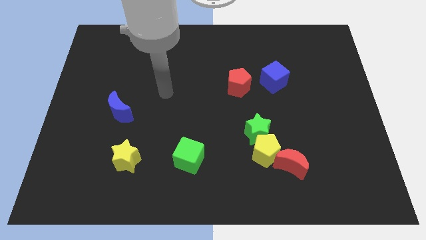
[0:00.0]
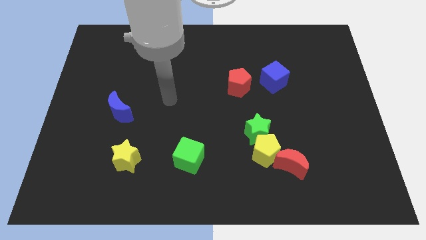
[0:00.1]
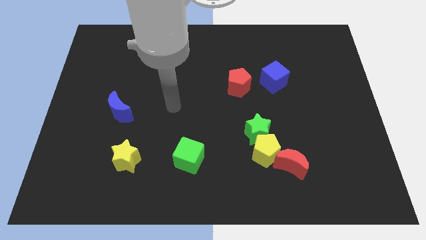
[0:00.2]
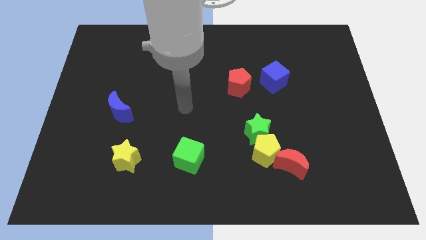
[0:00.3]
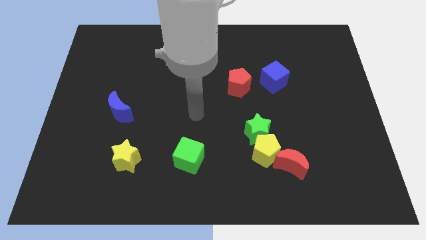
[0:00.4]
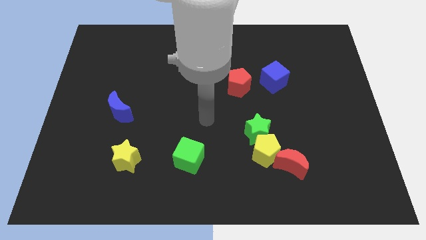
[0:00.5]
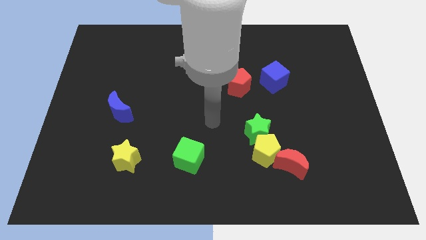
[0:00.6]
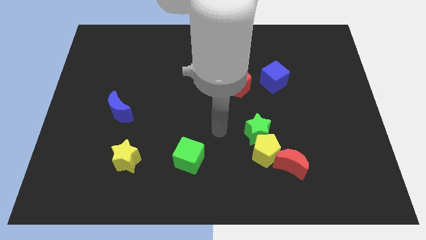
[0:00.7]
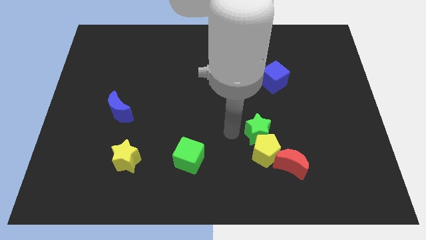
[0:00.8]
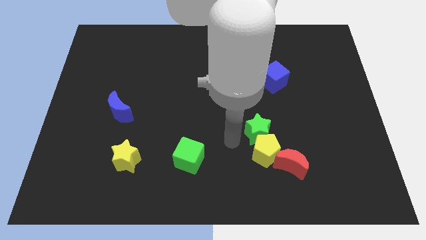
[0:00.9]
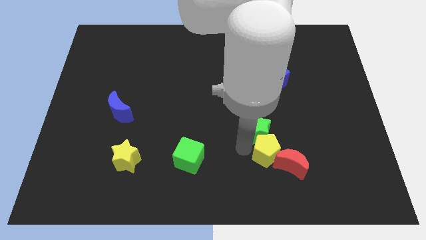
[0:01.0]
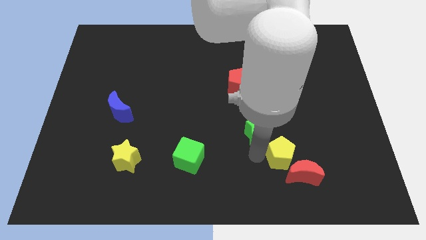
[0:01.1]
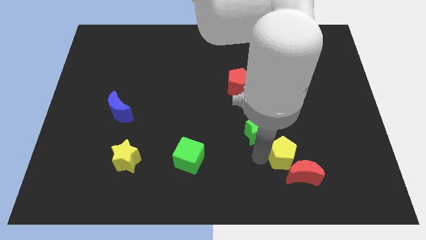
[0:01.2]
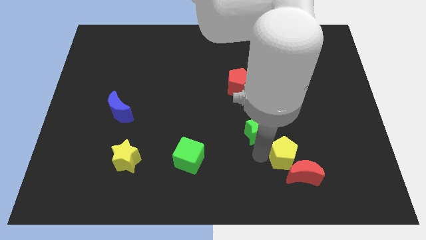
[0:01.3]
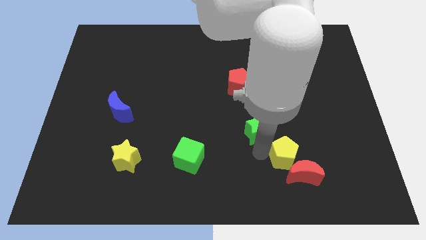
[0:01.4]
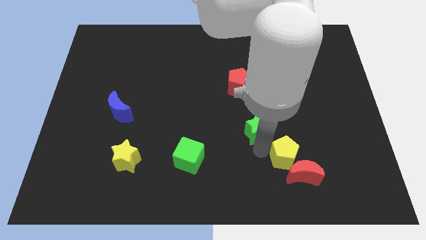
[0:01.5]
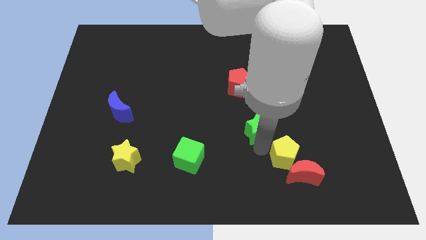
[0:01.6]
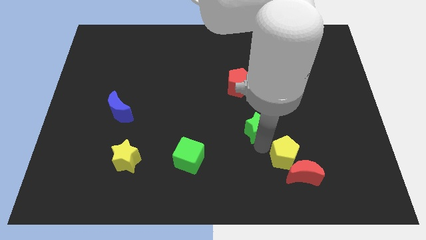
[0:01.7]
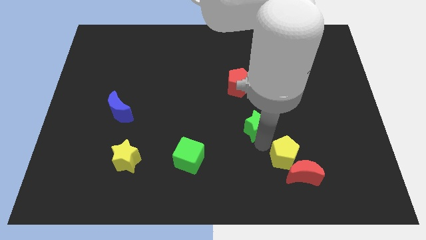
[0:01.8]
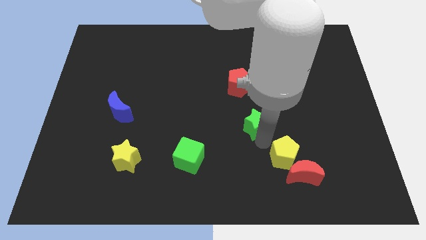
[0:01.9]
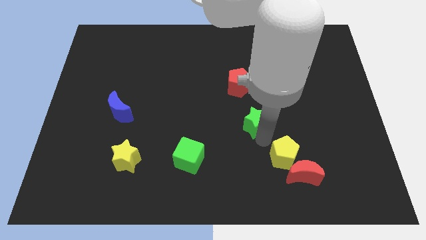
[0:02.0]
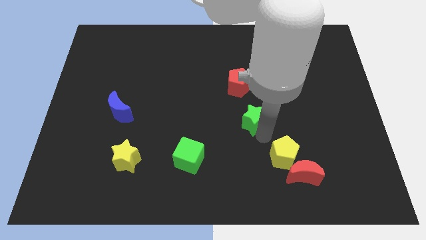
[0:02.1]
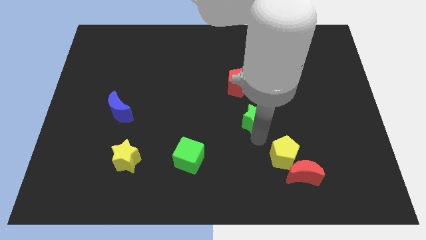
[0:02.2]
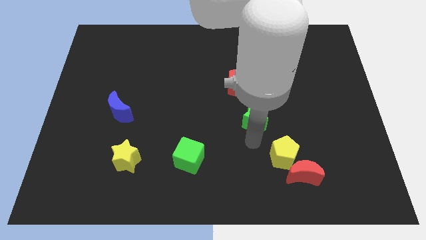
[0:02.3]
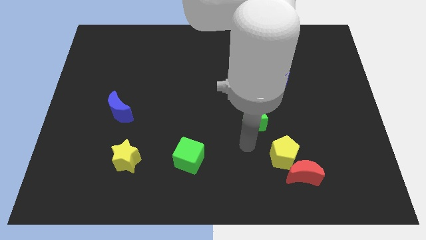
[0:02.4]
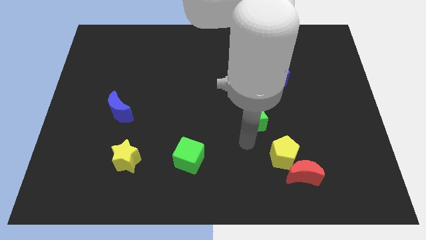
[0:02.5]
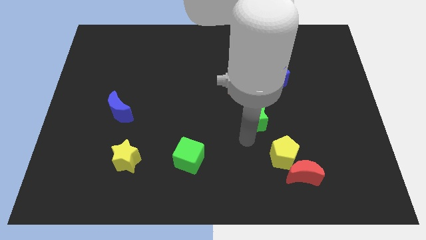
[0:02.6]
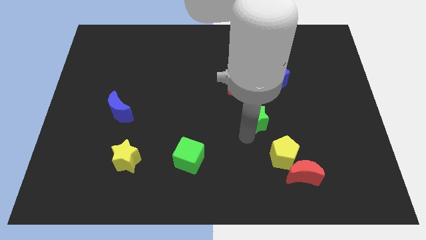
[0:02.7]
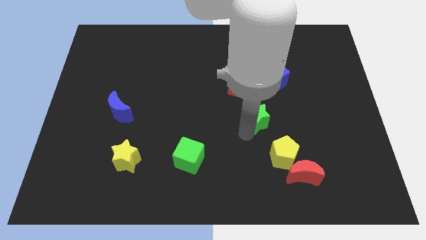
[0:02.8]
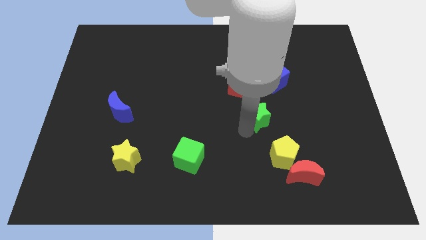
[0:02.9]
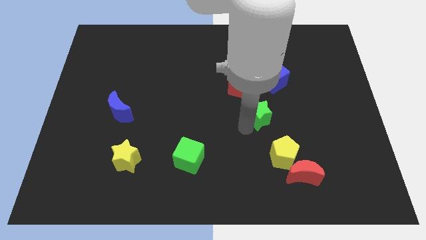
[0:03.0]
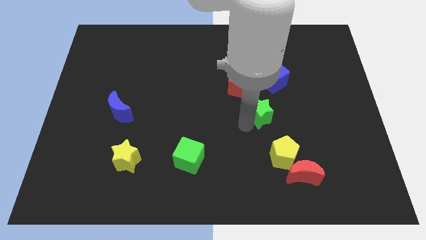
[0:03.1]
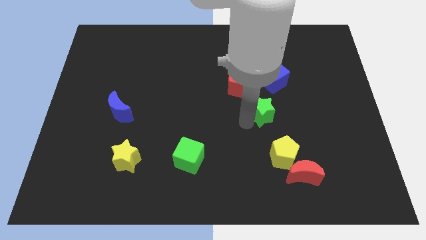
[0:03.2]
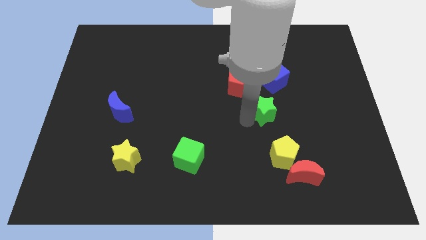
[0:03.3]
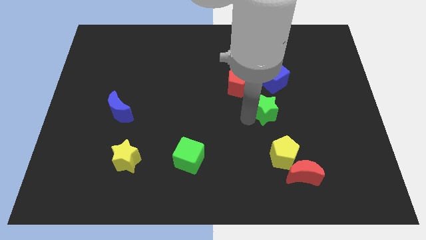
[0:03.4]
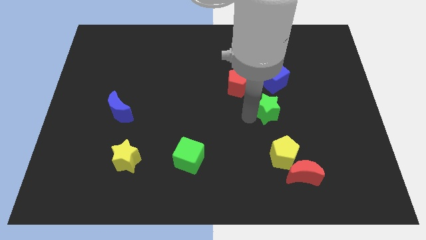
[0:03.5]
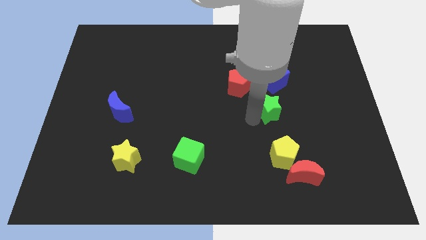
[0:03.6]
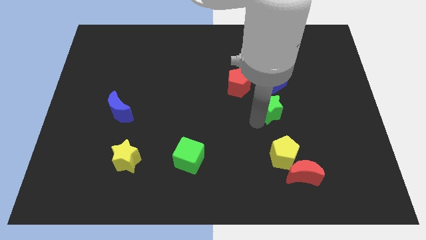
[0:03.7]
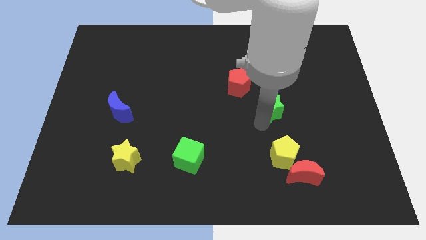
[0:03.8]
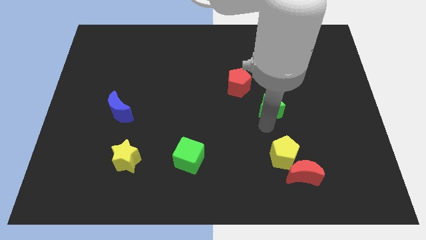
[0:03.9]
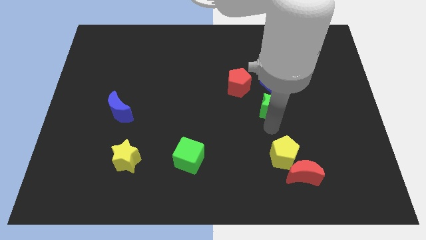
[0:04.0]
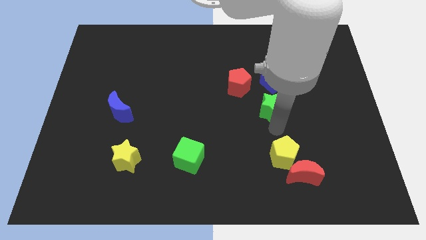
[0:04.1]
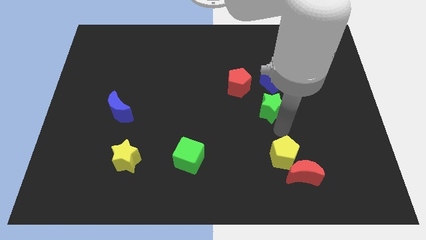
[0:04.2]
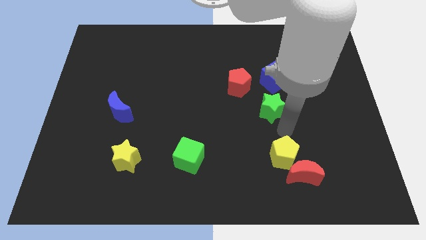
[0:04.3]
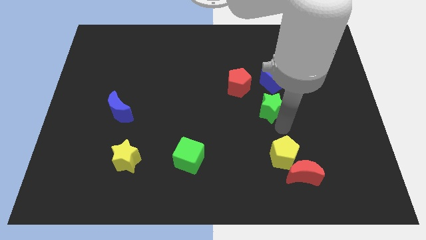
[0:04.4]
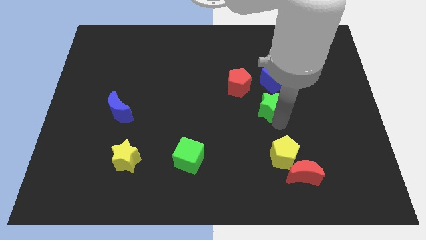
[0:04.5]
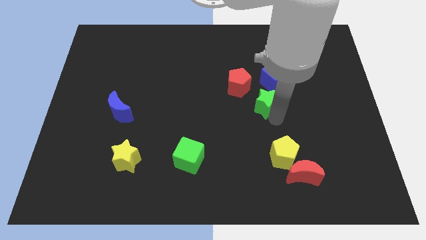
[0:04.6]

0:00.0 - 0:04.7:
slide the green star somewhat upwards

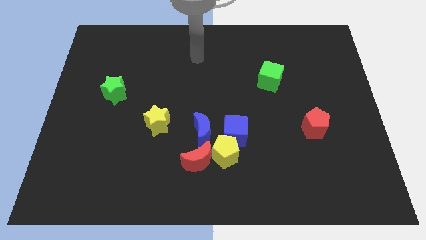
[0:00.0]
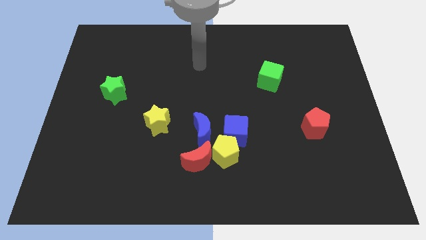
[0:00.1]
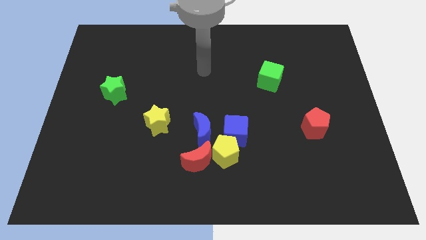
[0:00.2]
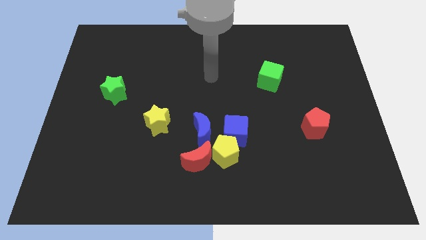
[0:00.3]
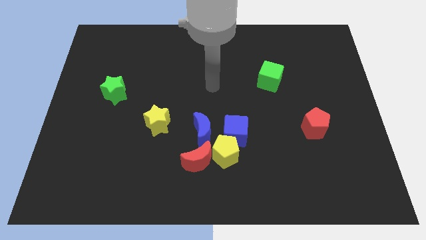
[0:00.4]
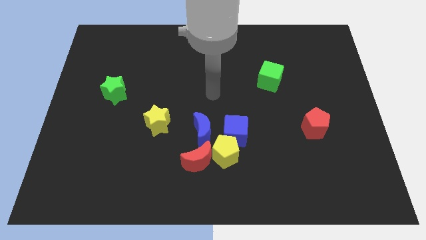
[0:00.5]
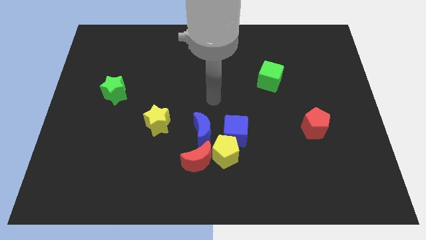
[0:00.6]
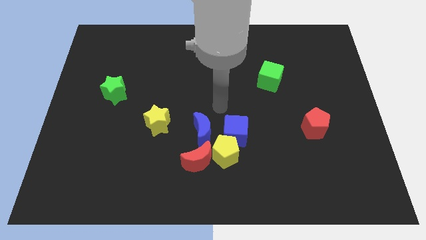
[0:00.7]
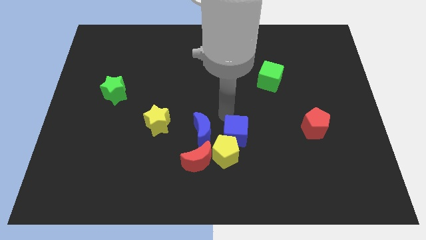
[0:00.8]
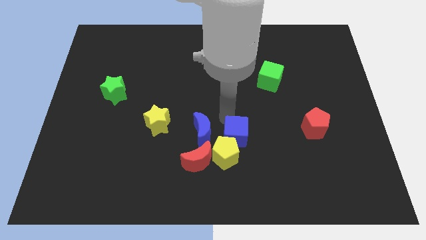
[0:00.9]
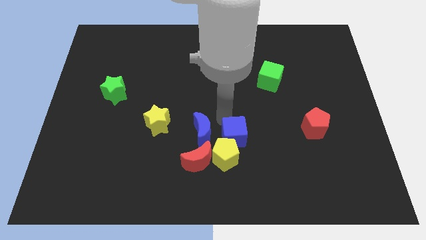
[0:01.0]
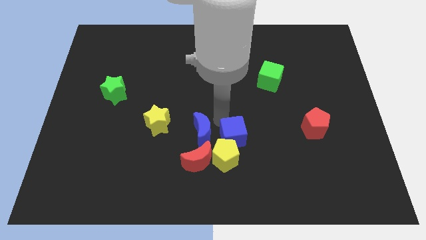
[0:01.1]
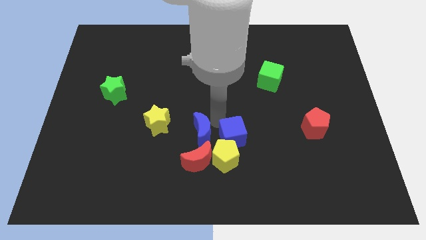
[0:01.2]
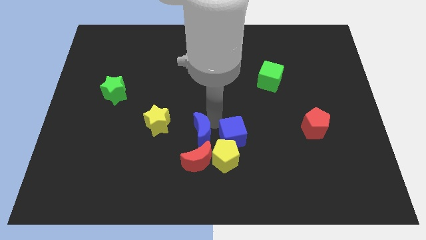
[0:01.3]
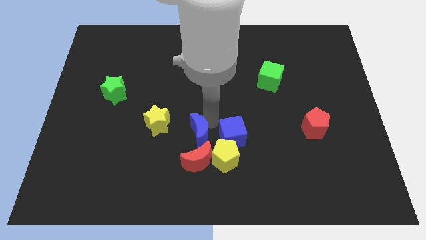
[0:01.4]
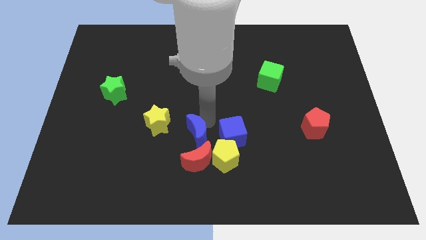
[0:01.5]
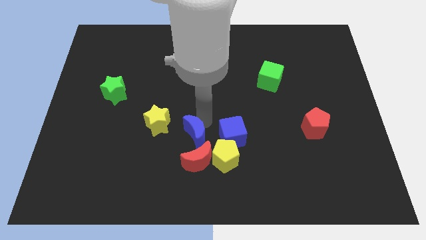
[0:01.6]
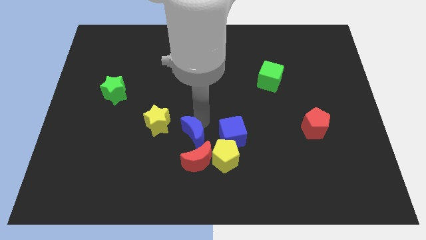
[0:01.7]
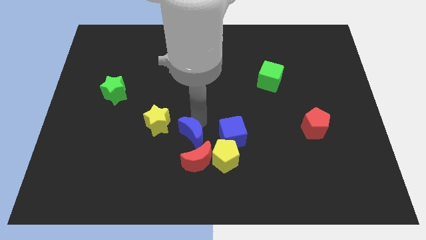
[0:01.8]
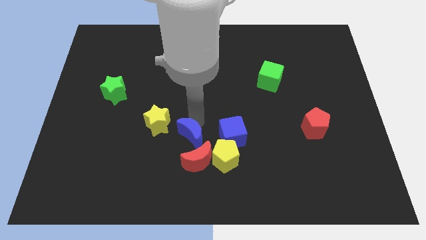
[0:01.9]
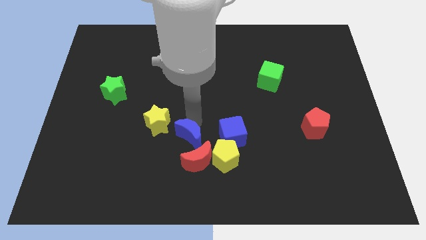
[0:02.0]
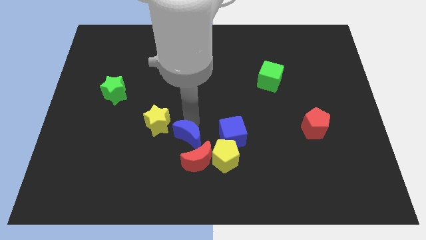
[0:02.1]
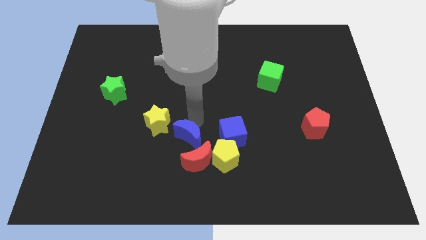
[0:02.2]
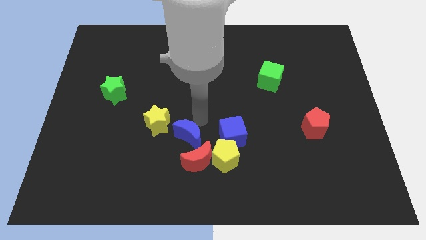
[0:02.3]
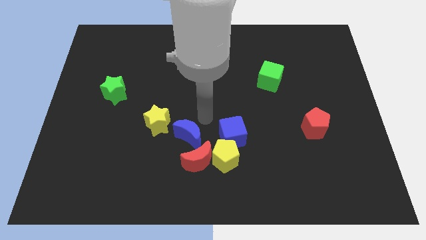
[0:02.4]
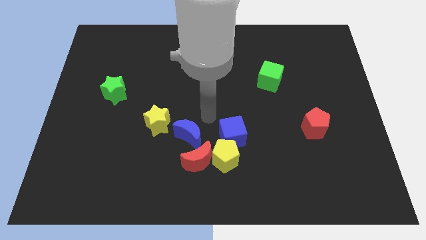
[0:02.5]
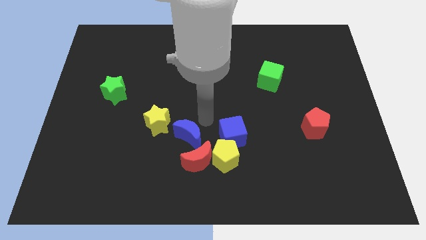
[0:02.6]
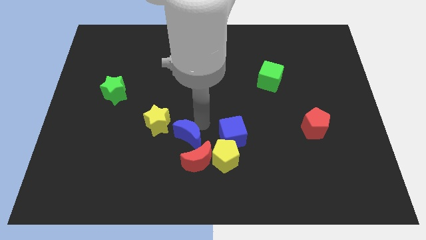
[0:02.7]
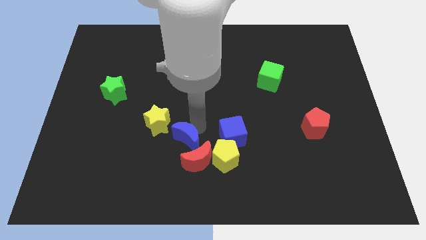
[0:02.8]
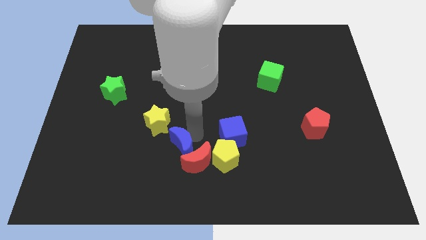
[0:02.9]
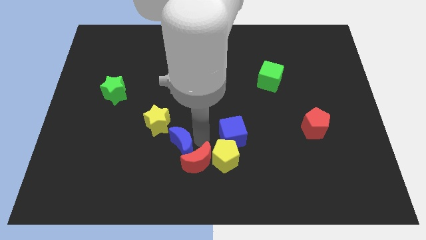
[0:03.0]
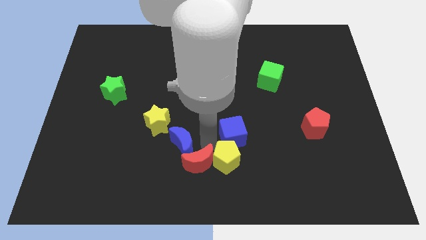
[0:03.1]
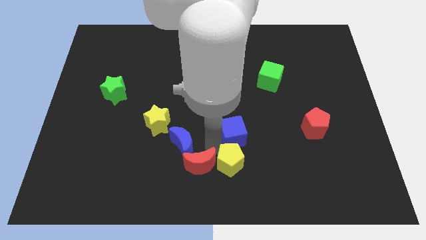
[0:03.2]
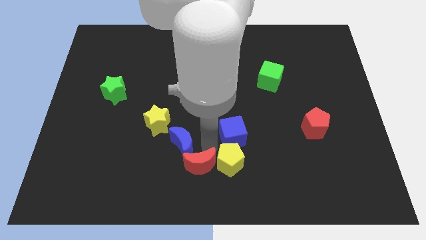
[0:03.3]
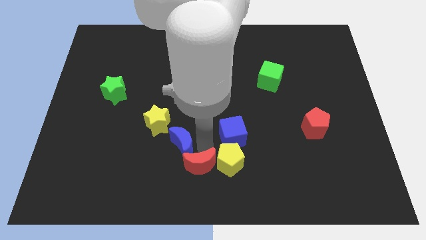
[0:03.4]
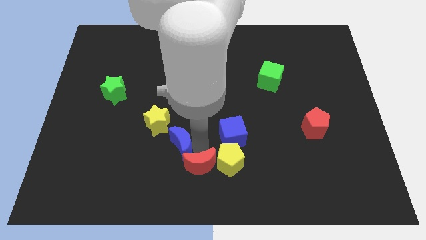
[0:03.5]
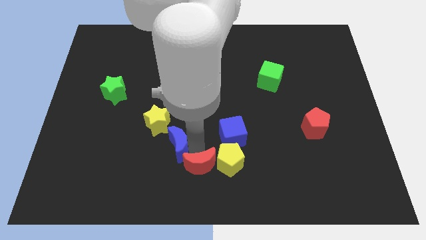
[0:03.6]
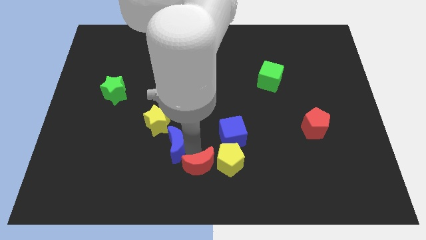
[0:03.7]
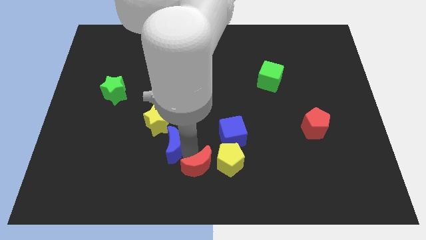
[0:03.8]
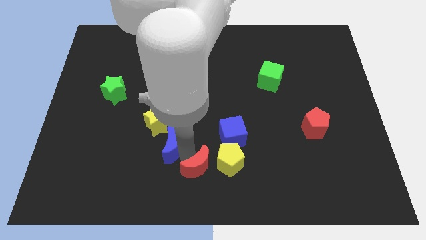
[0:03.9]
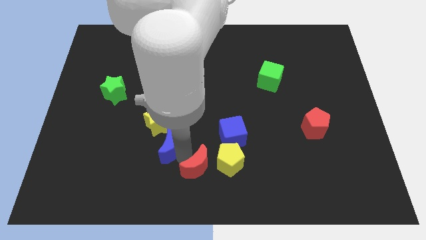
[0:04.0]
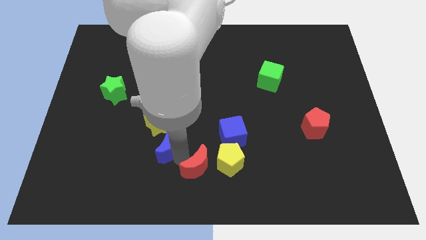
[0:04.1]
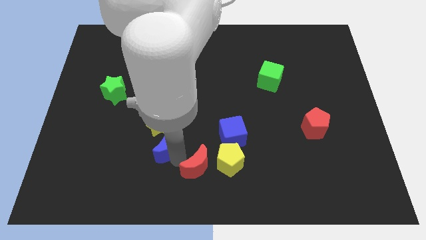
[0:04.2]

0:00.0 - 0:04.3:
push the blue moon somewhat to the left
